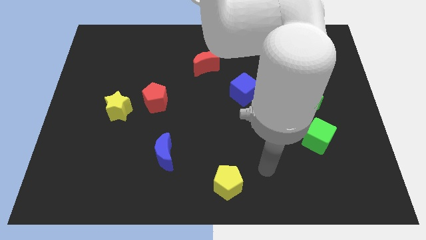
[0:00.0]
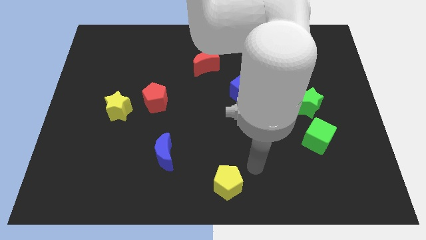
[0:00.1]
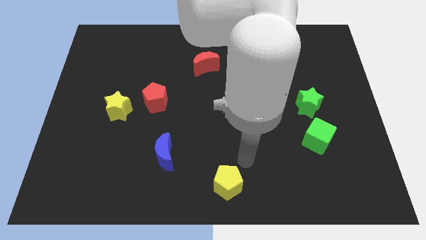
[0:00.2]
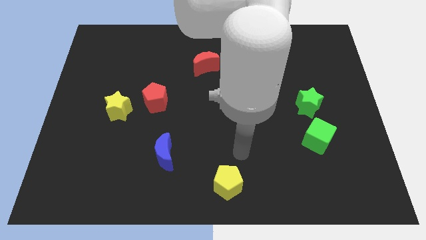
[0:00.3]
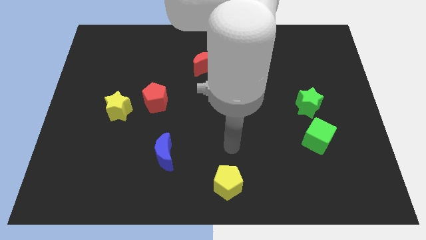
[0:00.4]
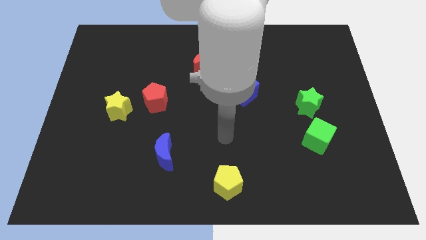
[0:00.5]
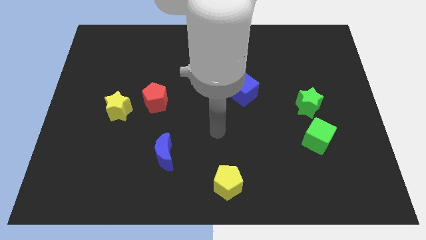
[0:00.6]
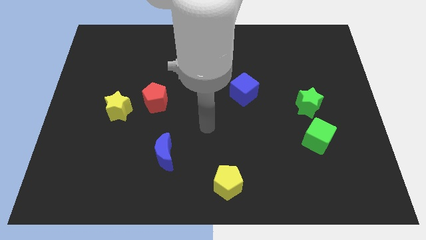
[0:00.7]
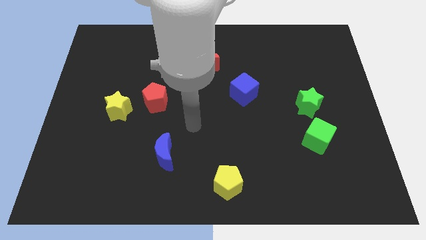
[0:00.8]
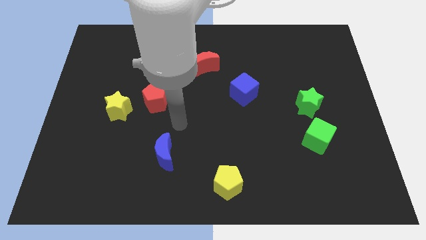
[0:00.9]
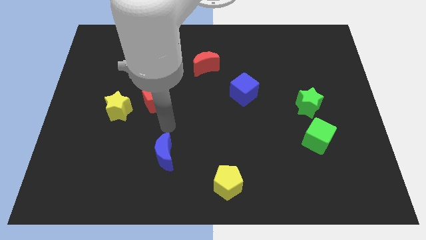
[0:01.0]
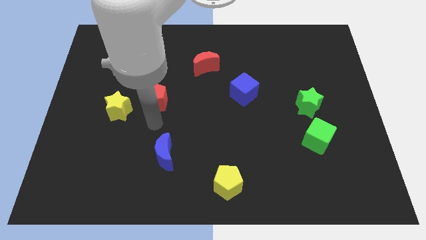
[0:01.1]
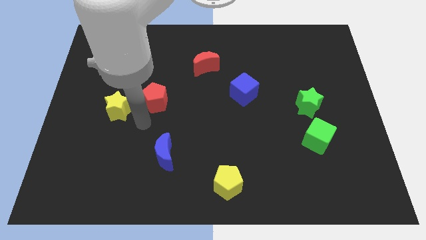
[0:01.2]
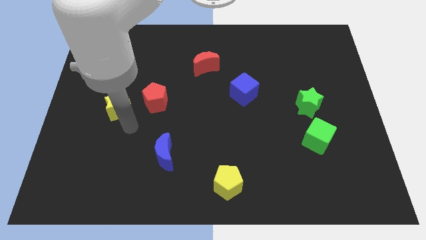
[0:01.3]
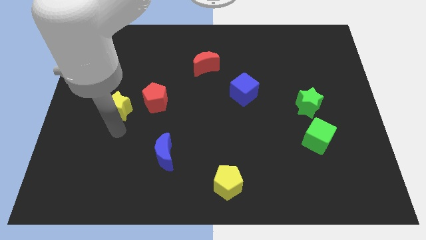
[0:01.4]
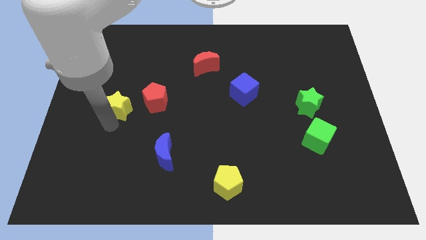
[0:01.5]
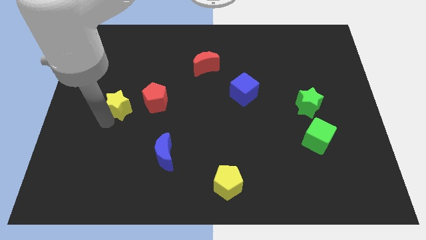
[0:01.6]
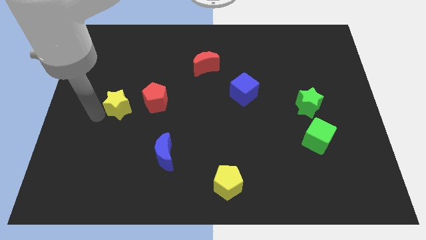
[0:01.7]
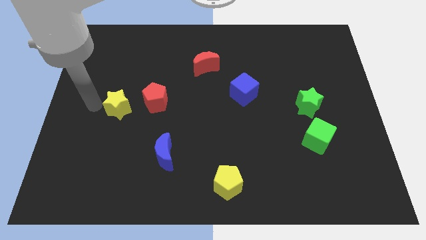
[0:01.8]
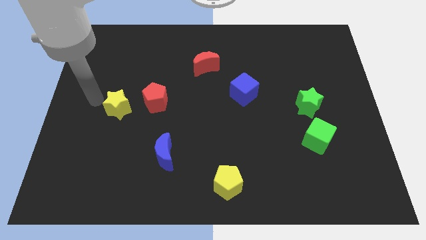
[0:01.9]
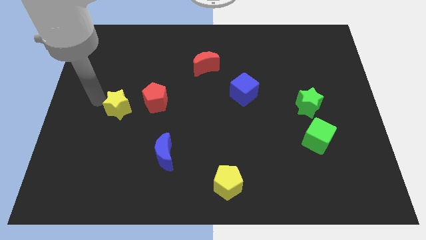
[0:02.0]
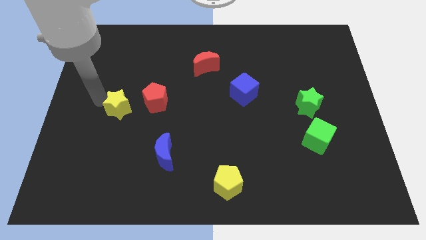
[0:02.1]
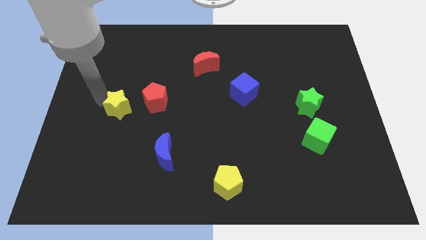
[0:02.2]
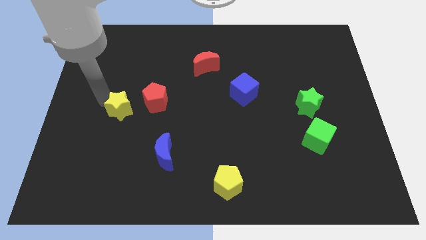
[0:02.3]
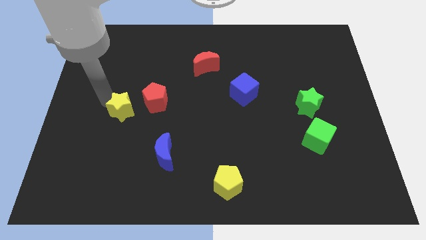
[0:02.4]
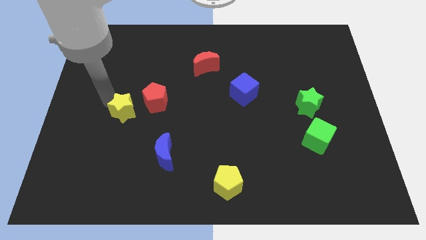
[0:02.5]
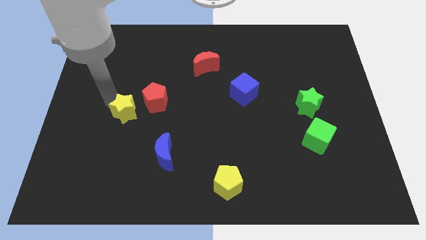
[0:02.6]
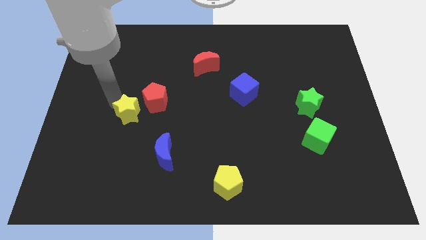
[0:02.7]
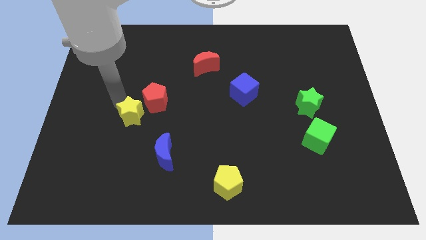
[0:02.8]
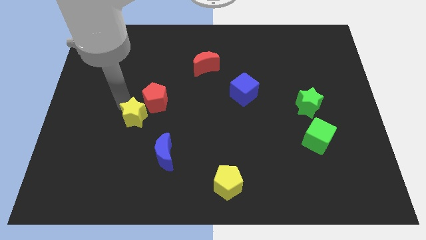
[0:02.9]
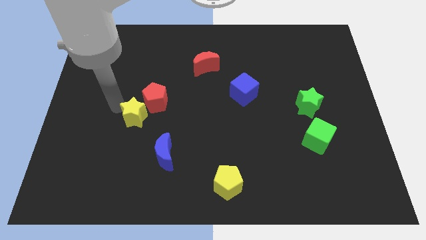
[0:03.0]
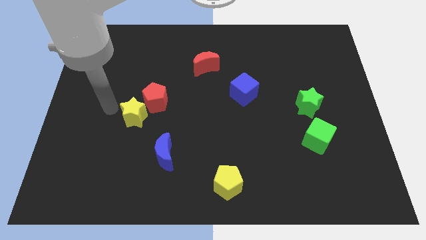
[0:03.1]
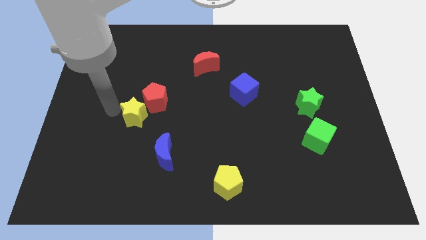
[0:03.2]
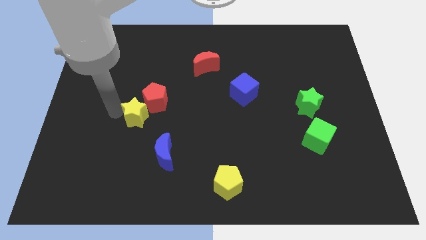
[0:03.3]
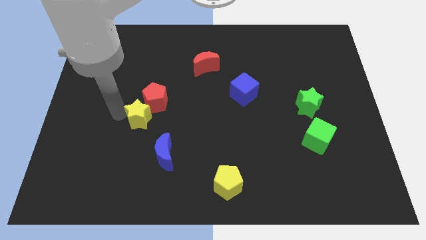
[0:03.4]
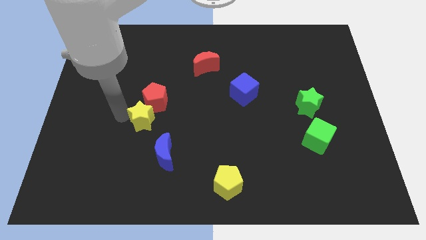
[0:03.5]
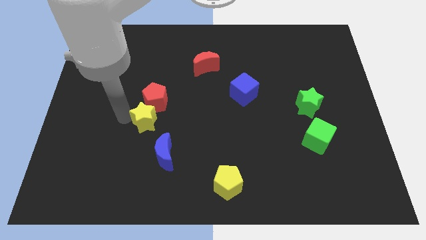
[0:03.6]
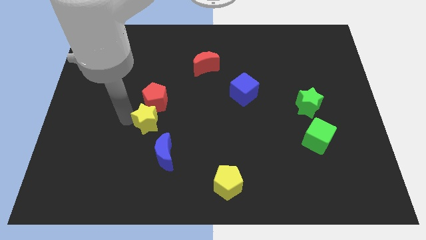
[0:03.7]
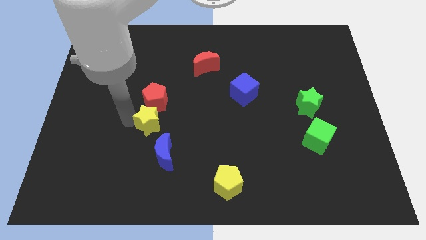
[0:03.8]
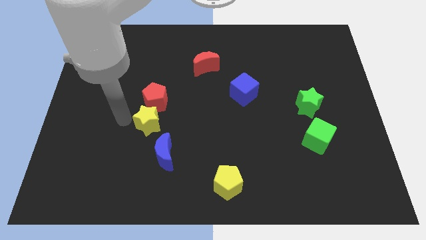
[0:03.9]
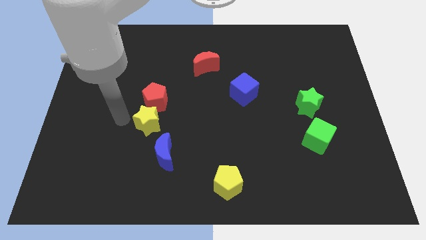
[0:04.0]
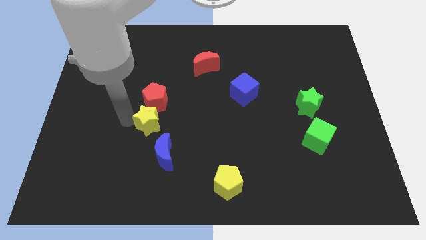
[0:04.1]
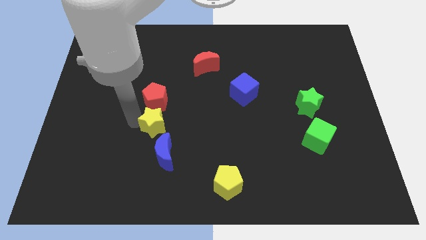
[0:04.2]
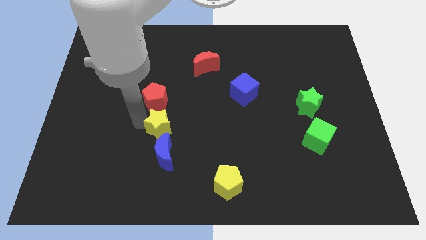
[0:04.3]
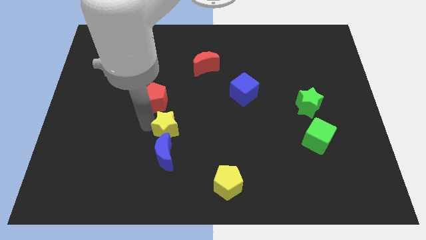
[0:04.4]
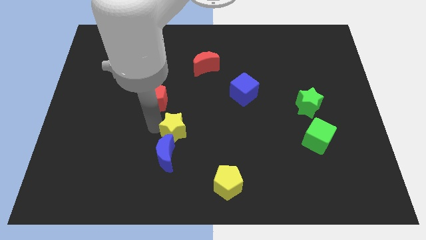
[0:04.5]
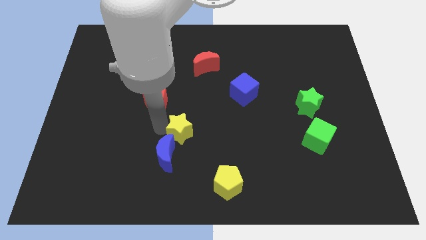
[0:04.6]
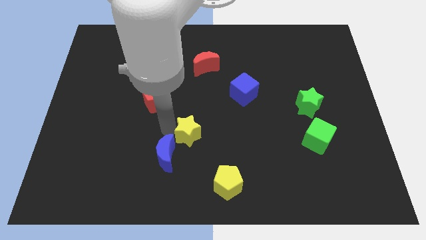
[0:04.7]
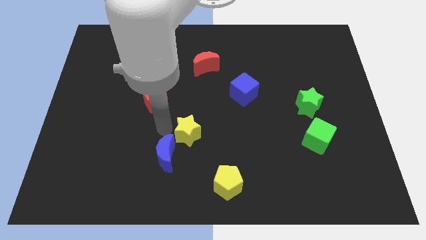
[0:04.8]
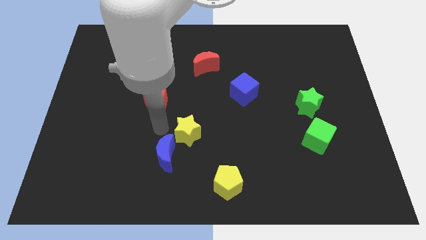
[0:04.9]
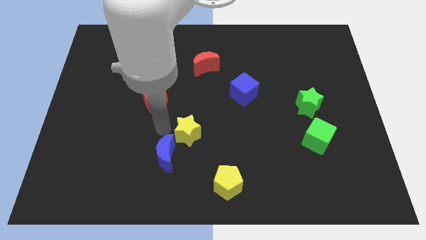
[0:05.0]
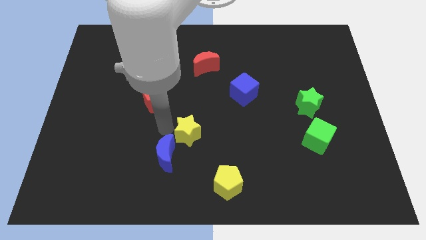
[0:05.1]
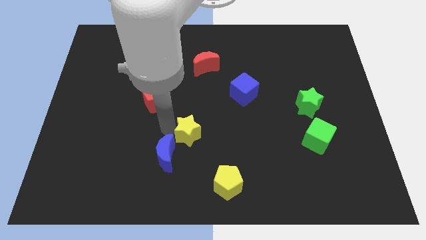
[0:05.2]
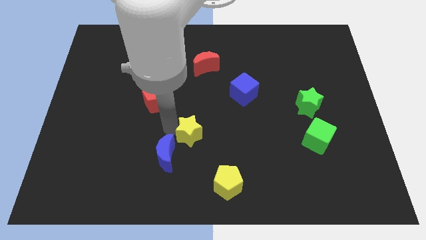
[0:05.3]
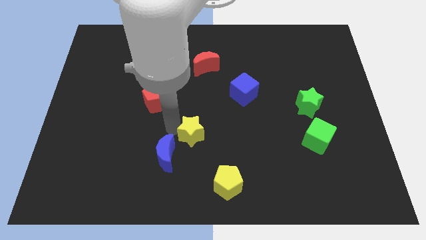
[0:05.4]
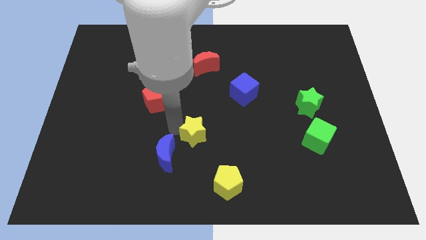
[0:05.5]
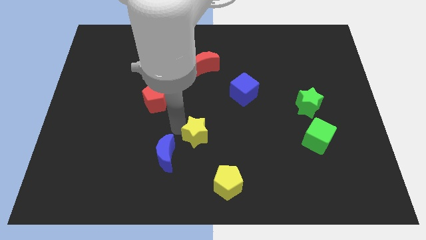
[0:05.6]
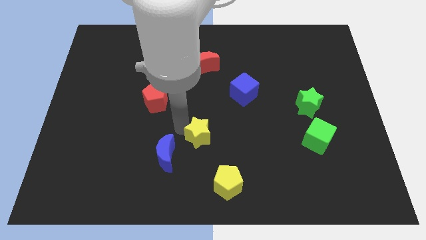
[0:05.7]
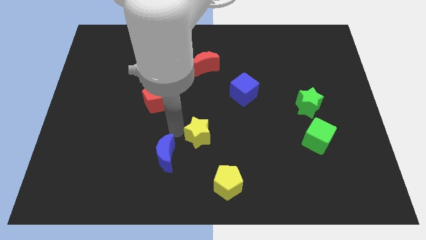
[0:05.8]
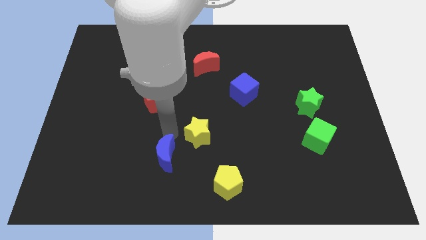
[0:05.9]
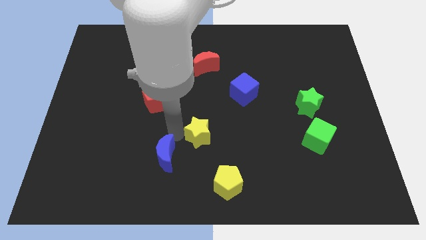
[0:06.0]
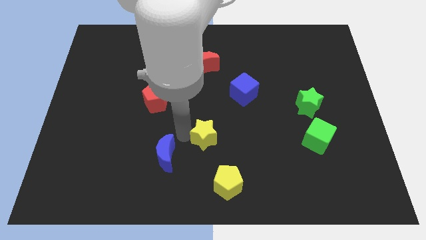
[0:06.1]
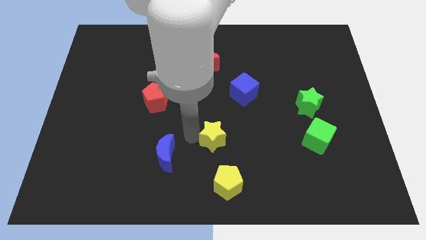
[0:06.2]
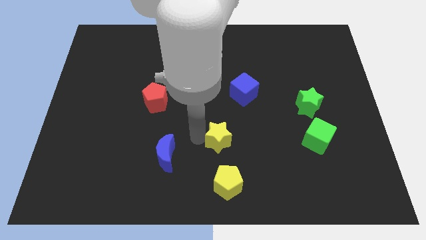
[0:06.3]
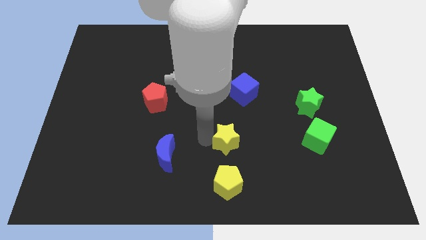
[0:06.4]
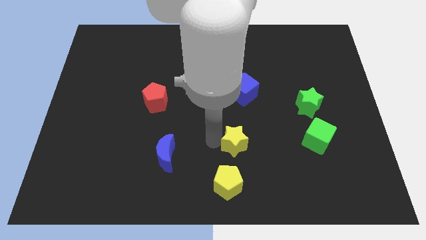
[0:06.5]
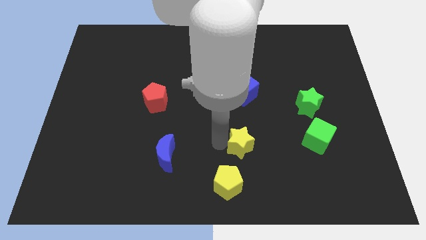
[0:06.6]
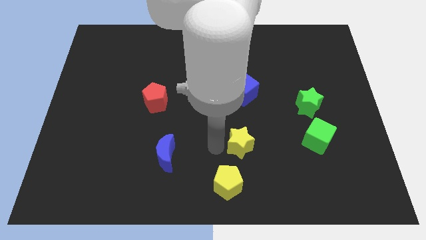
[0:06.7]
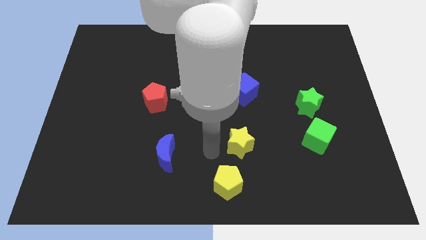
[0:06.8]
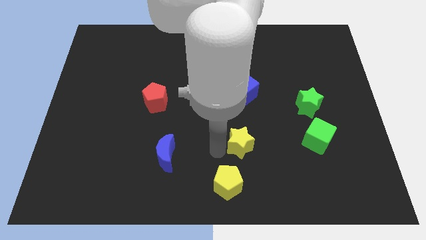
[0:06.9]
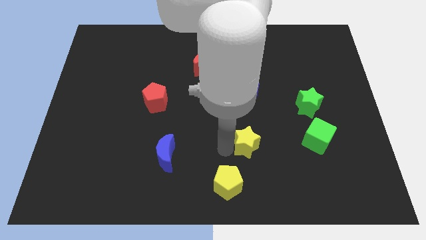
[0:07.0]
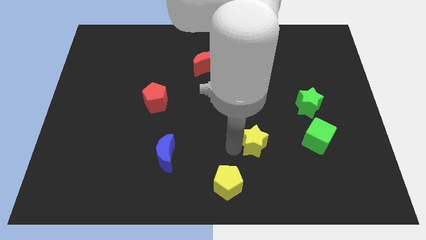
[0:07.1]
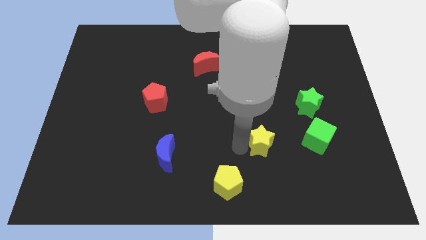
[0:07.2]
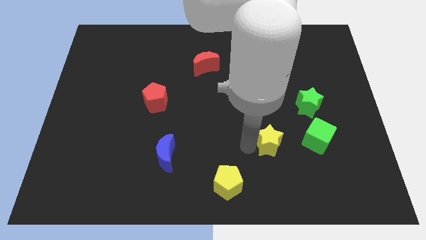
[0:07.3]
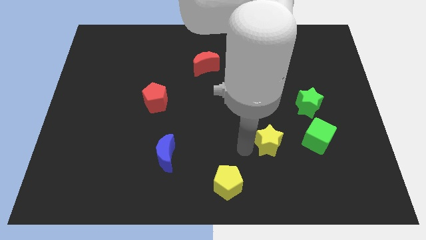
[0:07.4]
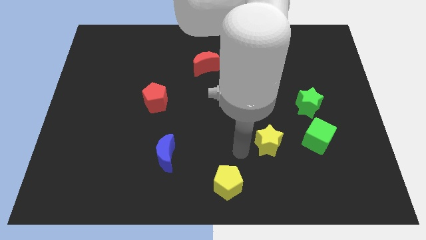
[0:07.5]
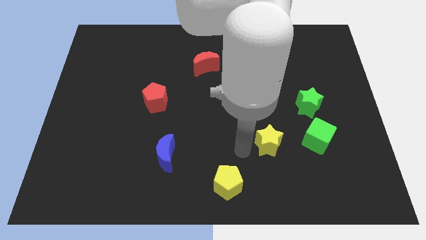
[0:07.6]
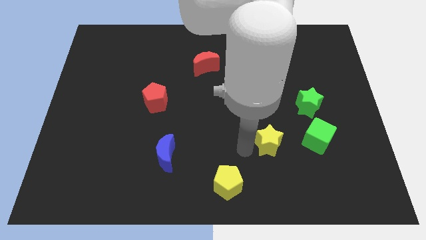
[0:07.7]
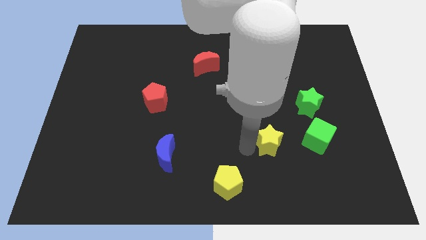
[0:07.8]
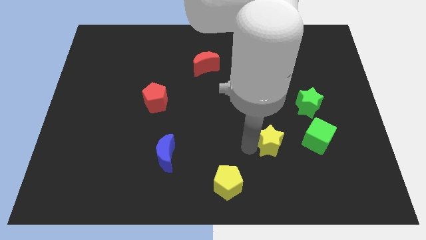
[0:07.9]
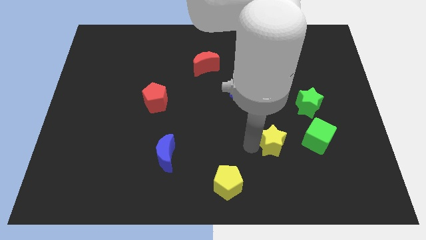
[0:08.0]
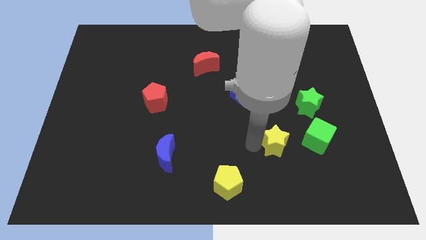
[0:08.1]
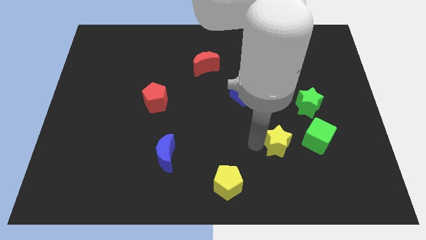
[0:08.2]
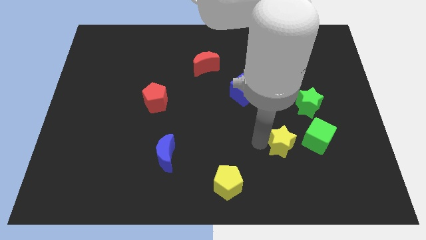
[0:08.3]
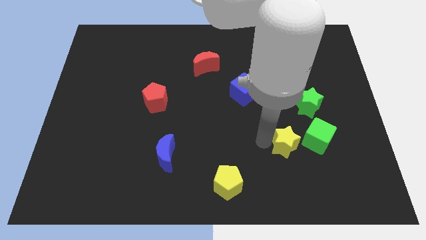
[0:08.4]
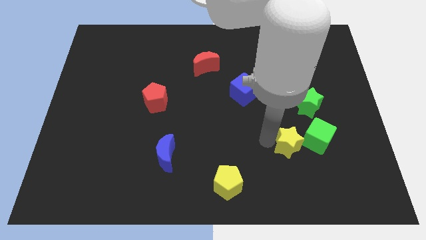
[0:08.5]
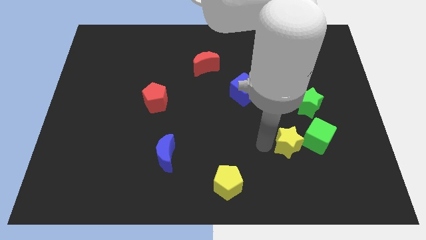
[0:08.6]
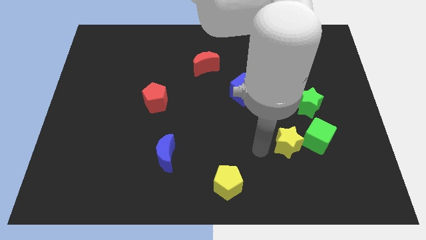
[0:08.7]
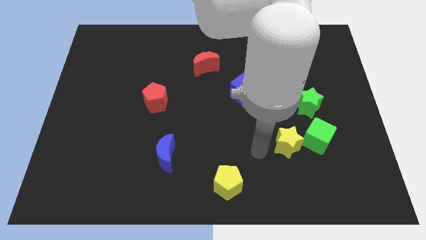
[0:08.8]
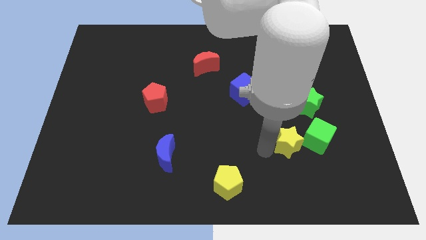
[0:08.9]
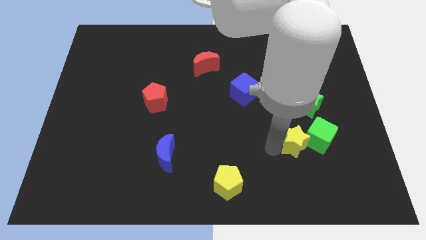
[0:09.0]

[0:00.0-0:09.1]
slide the yellow star close to the green cube
